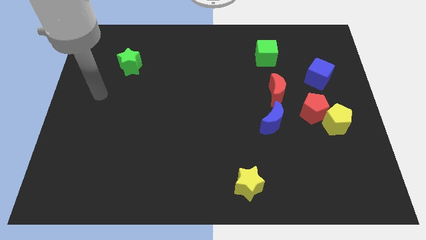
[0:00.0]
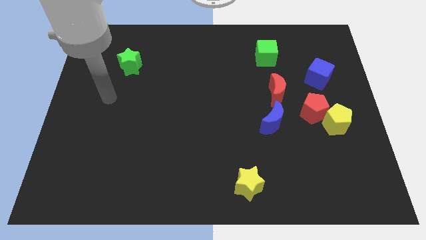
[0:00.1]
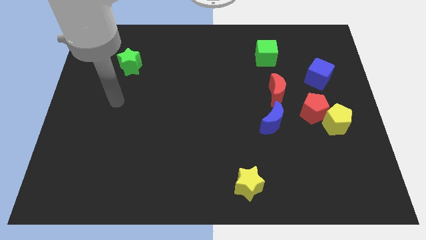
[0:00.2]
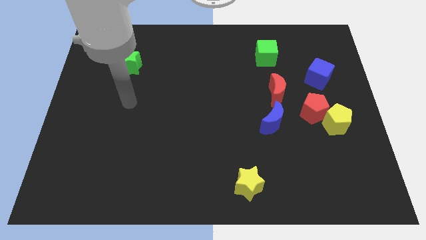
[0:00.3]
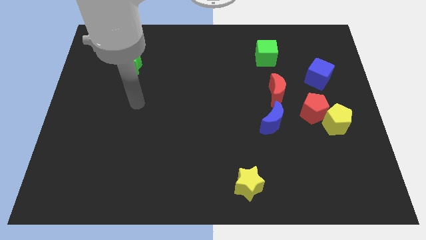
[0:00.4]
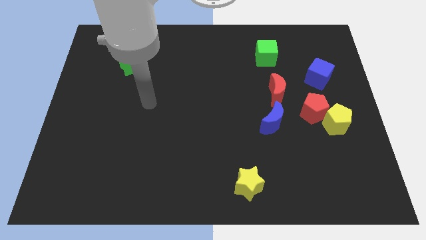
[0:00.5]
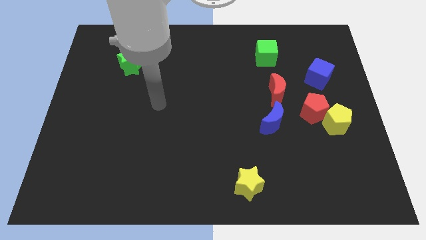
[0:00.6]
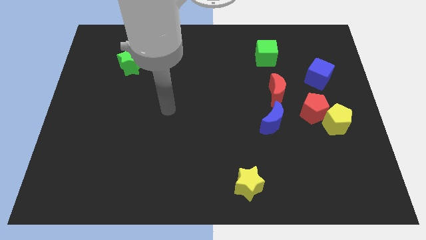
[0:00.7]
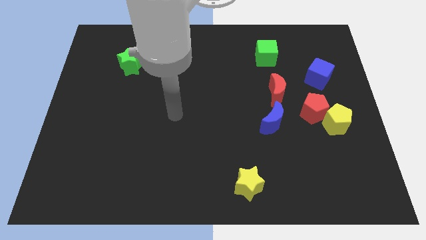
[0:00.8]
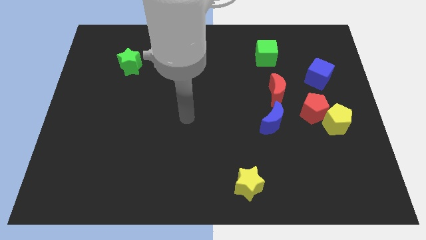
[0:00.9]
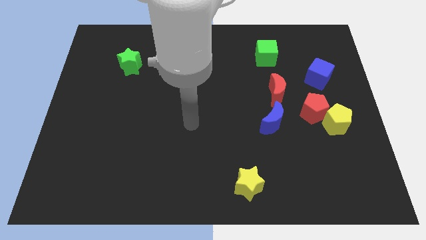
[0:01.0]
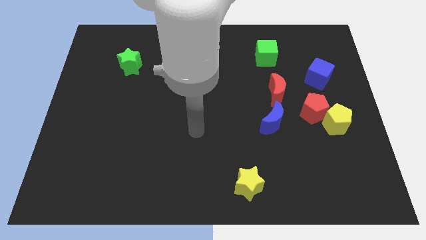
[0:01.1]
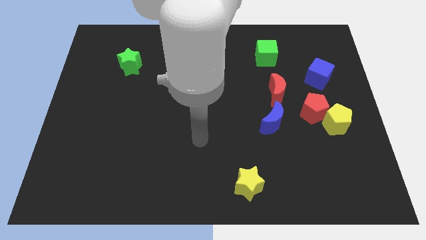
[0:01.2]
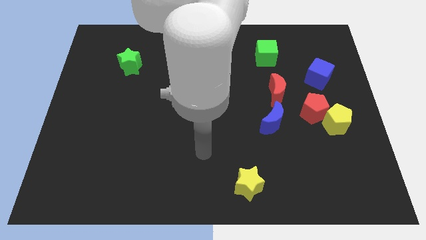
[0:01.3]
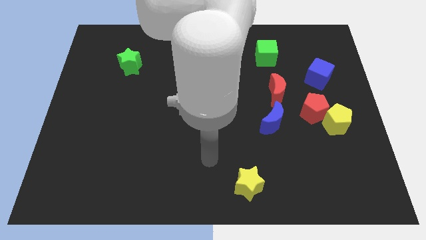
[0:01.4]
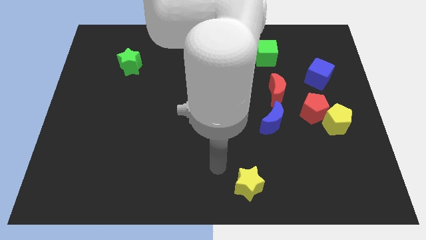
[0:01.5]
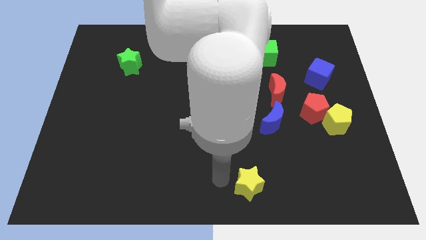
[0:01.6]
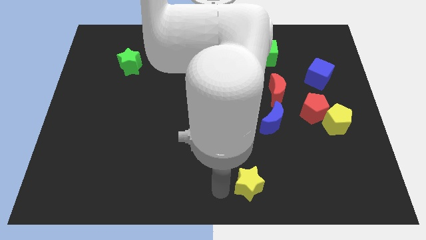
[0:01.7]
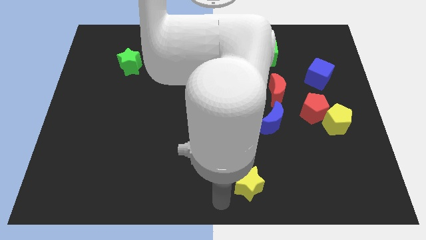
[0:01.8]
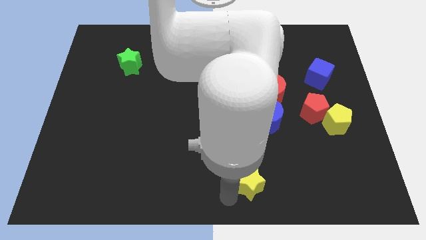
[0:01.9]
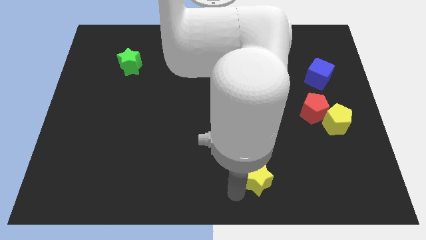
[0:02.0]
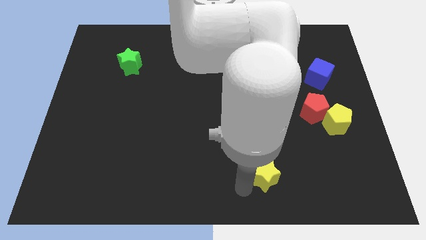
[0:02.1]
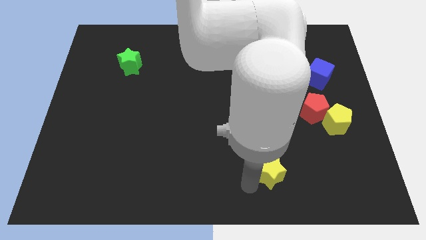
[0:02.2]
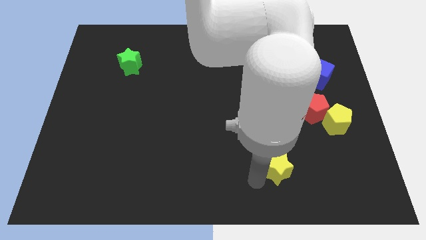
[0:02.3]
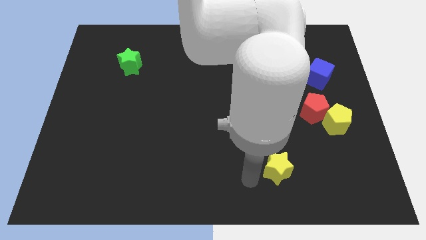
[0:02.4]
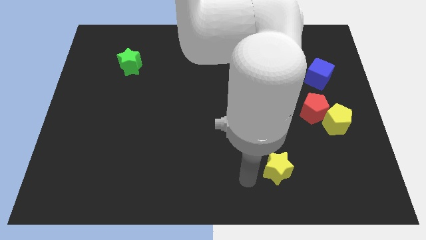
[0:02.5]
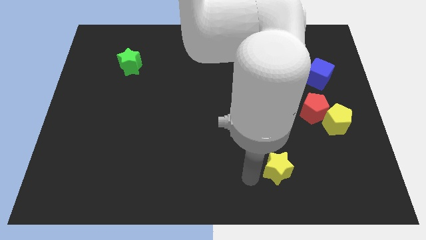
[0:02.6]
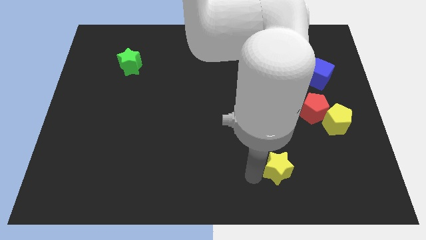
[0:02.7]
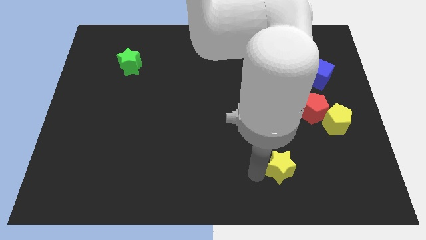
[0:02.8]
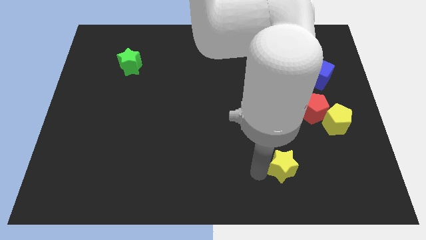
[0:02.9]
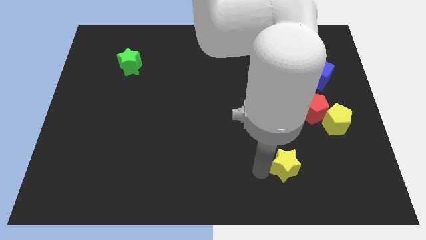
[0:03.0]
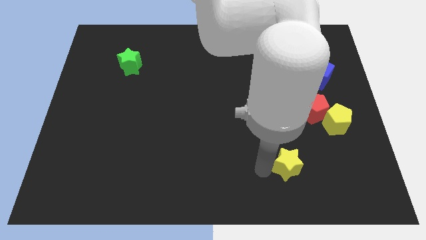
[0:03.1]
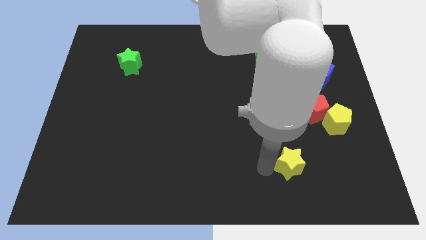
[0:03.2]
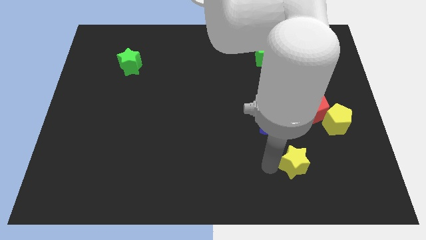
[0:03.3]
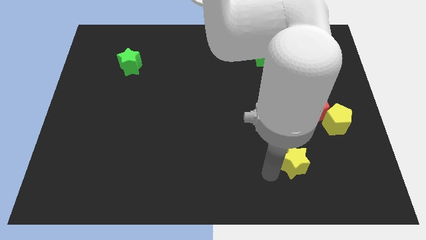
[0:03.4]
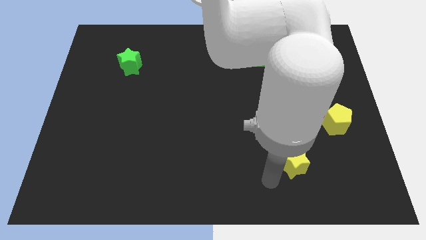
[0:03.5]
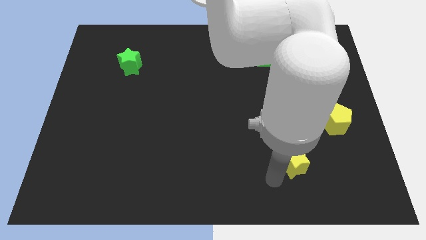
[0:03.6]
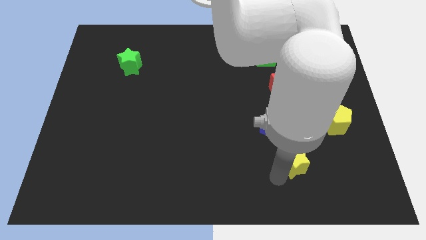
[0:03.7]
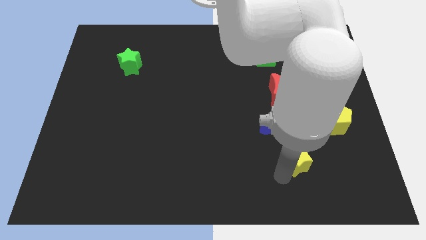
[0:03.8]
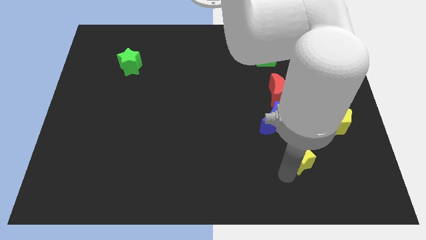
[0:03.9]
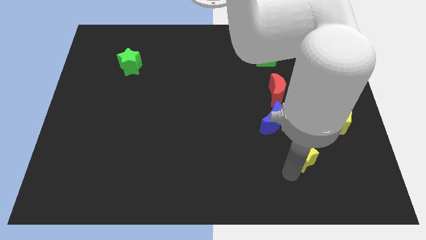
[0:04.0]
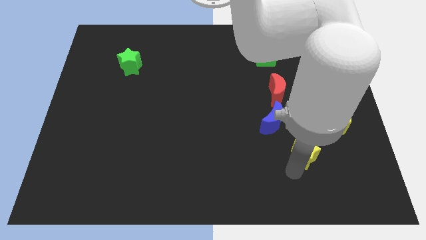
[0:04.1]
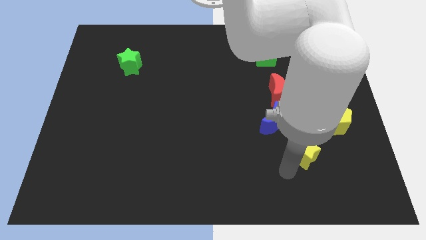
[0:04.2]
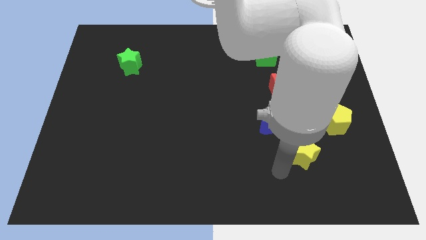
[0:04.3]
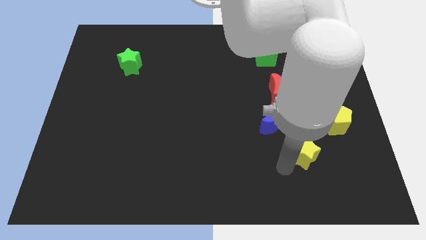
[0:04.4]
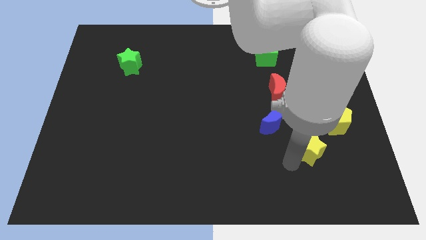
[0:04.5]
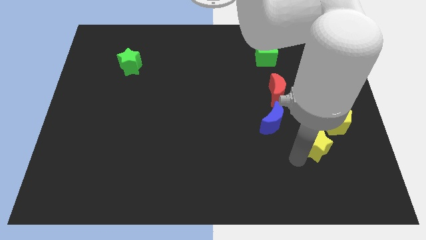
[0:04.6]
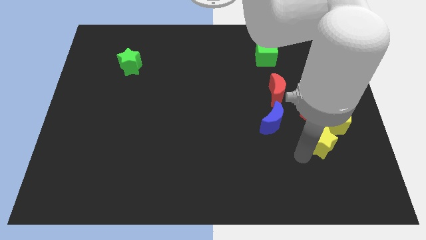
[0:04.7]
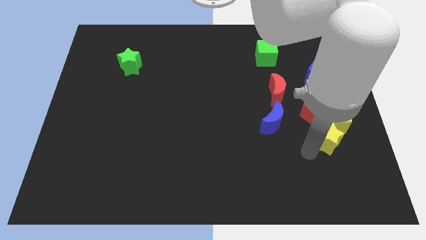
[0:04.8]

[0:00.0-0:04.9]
put the yellow star to the yellow pentagon

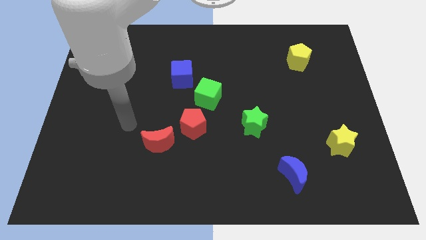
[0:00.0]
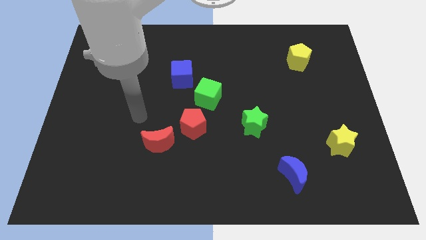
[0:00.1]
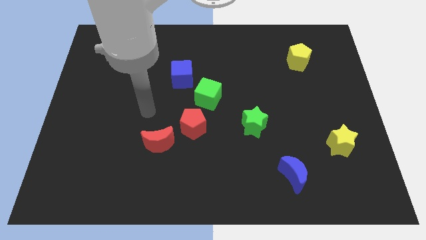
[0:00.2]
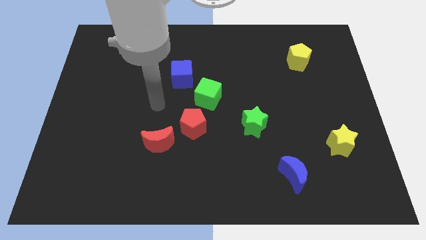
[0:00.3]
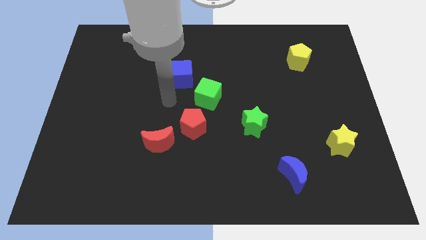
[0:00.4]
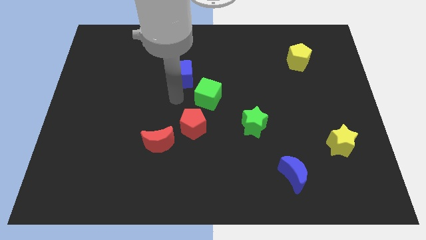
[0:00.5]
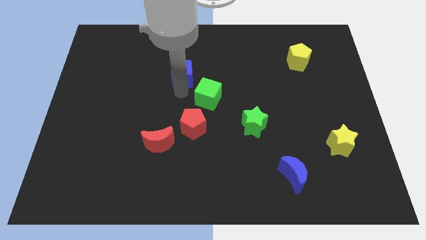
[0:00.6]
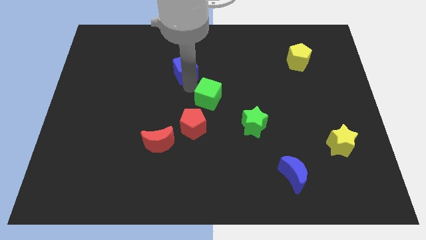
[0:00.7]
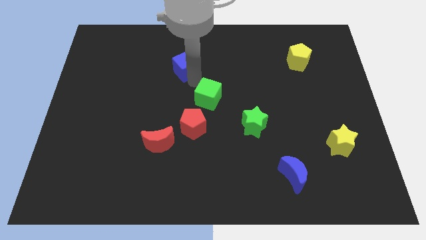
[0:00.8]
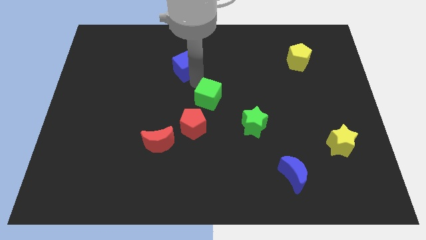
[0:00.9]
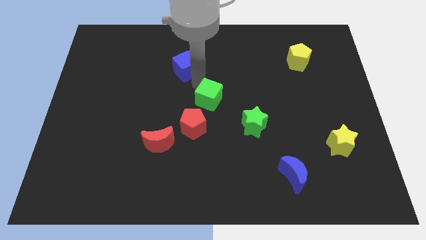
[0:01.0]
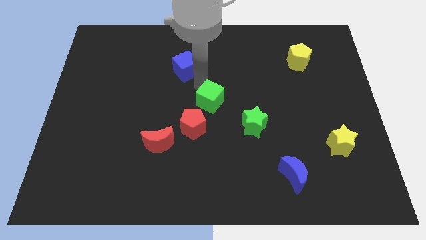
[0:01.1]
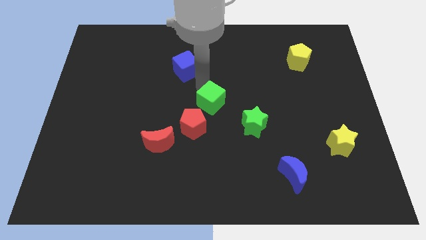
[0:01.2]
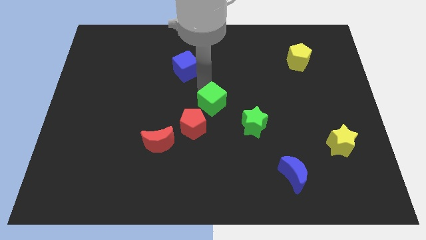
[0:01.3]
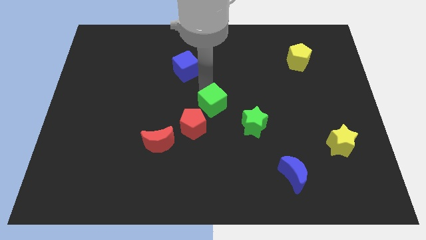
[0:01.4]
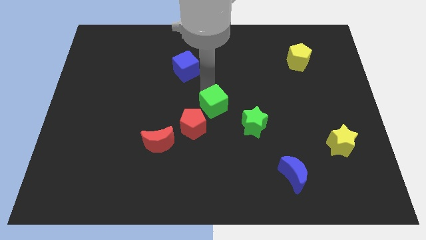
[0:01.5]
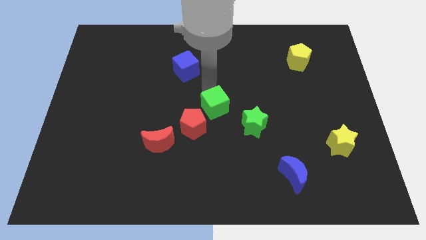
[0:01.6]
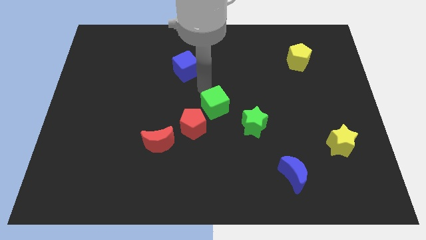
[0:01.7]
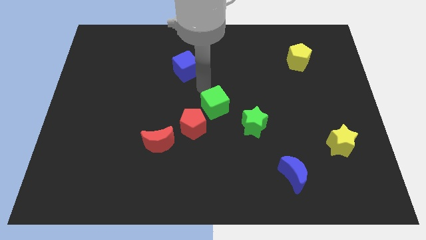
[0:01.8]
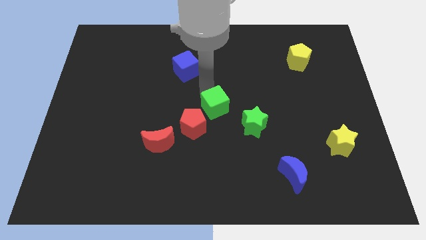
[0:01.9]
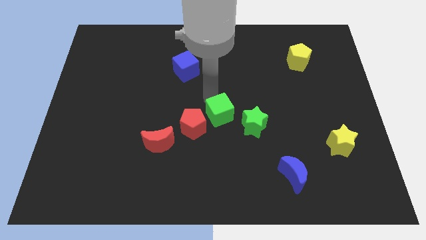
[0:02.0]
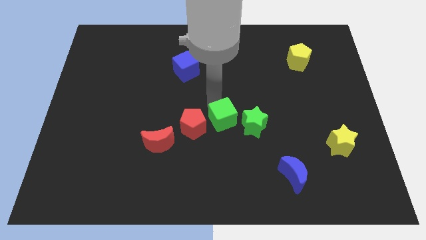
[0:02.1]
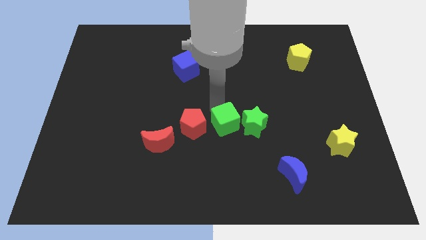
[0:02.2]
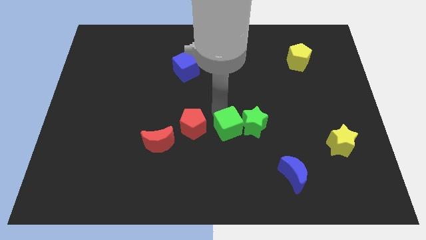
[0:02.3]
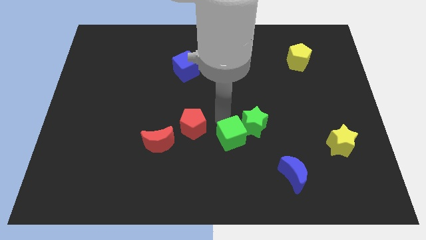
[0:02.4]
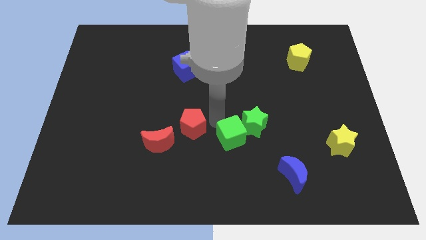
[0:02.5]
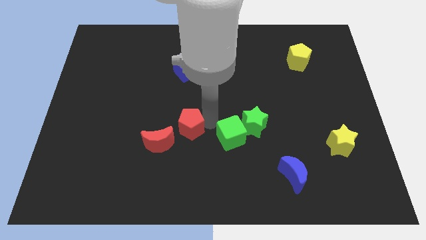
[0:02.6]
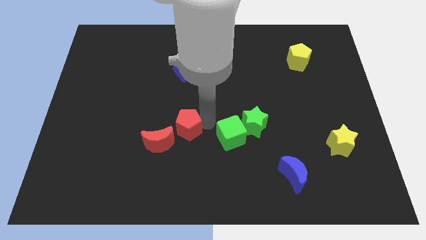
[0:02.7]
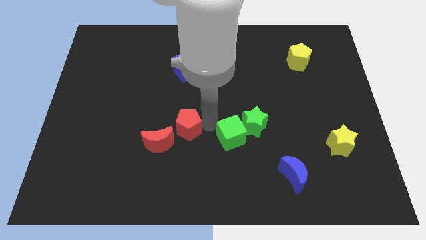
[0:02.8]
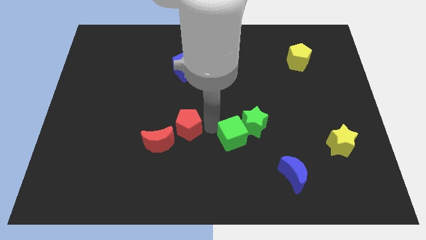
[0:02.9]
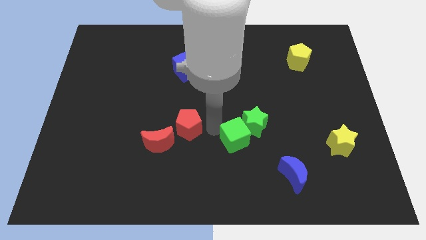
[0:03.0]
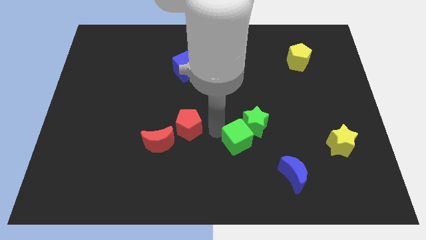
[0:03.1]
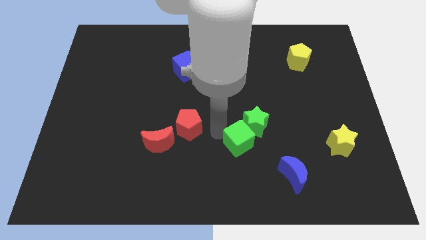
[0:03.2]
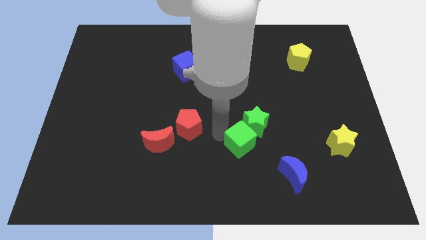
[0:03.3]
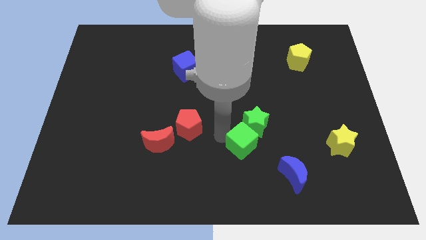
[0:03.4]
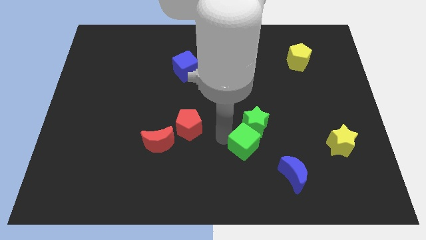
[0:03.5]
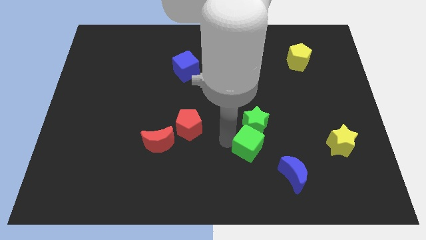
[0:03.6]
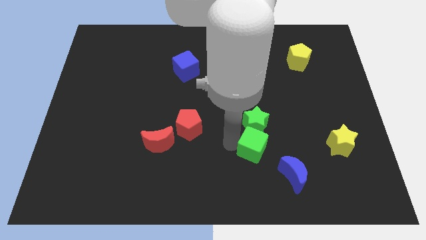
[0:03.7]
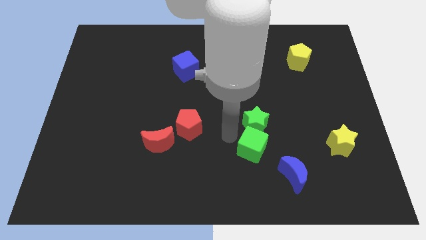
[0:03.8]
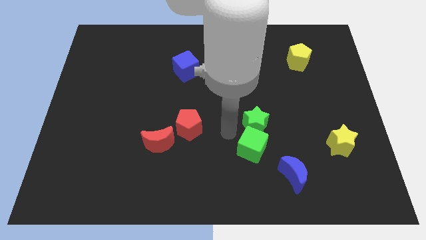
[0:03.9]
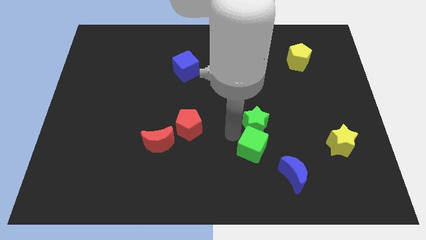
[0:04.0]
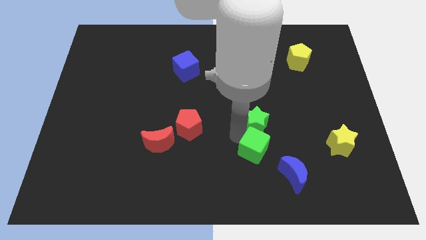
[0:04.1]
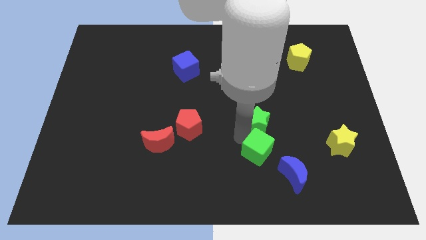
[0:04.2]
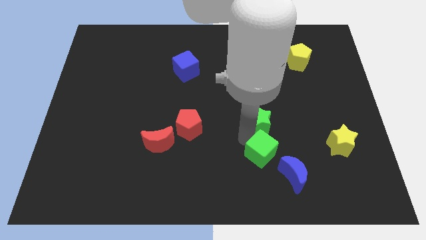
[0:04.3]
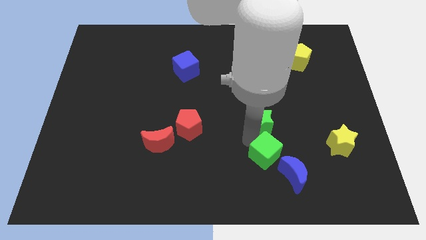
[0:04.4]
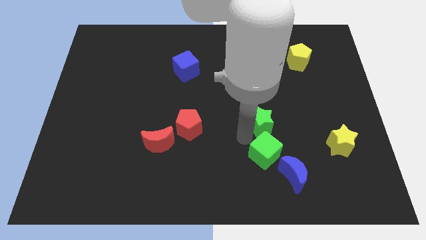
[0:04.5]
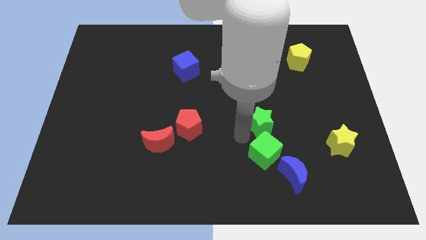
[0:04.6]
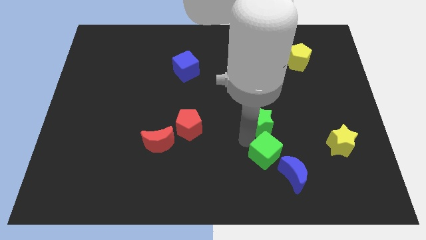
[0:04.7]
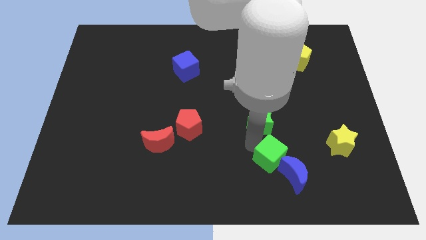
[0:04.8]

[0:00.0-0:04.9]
slide the green cube close to the blue moon
